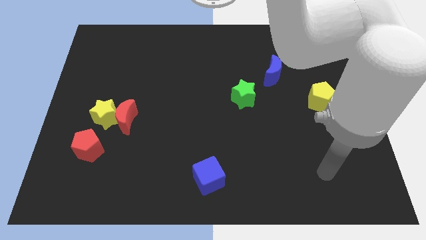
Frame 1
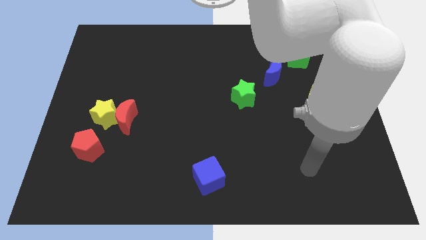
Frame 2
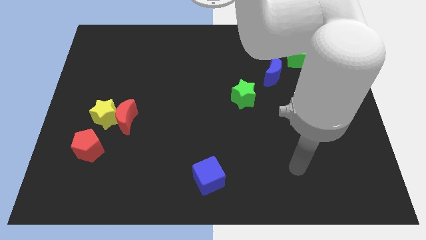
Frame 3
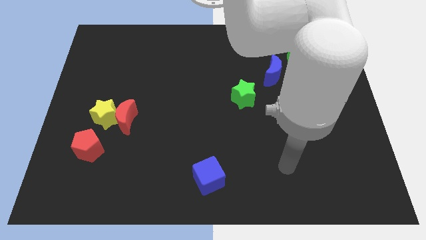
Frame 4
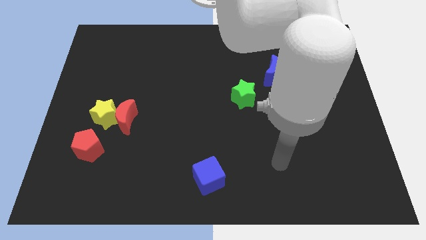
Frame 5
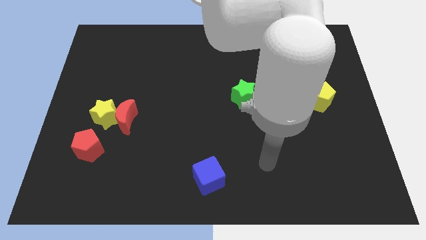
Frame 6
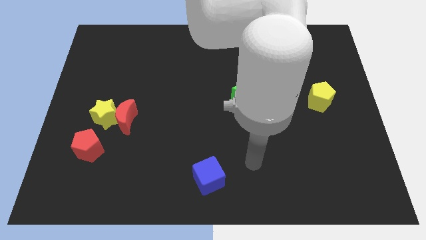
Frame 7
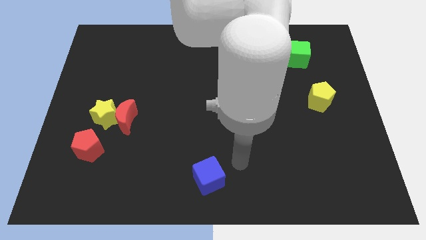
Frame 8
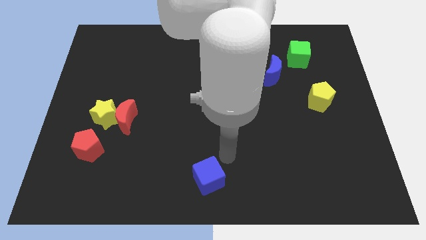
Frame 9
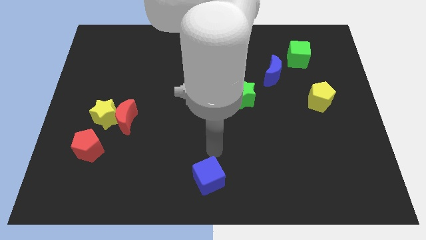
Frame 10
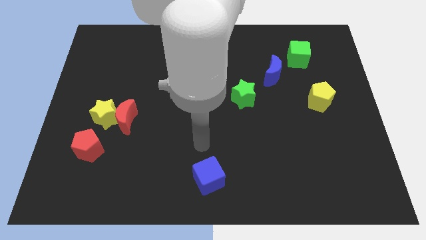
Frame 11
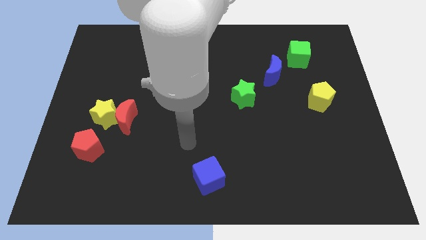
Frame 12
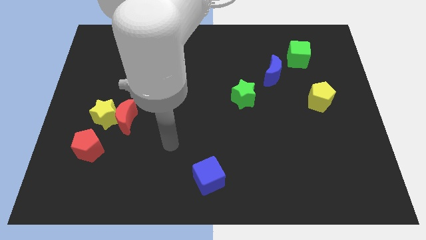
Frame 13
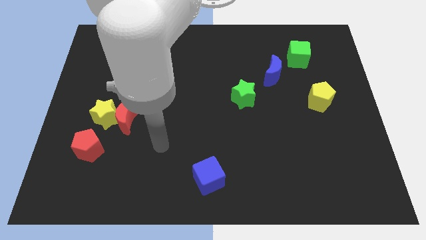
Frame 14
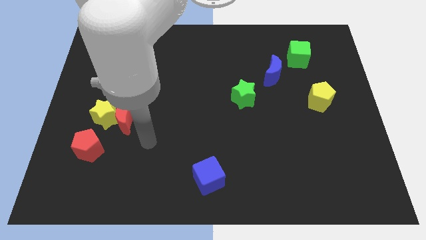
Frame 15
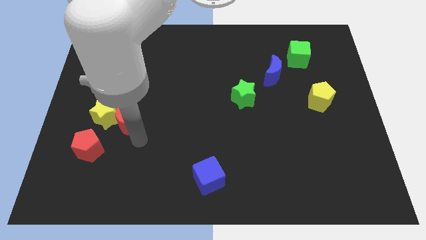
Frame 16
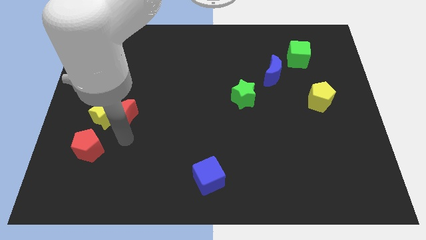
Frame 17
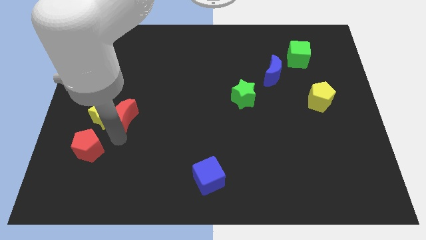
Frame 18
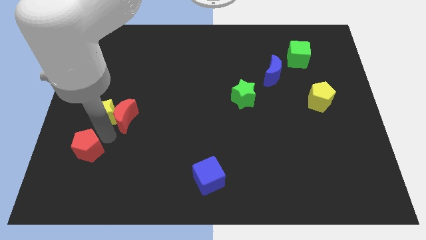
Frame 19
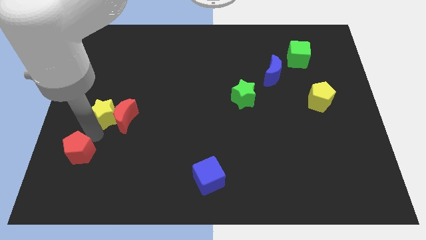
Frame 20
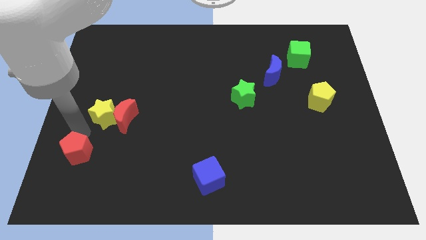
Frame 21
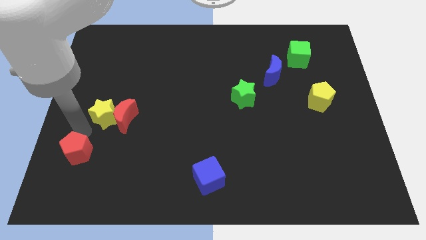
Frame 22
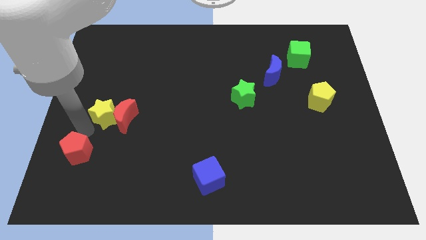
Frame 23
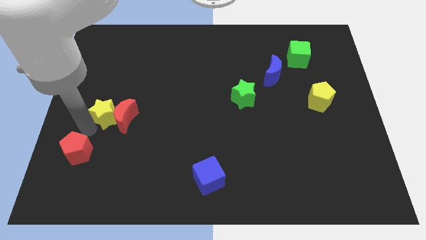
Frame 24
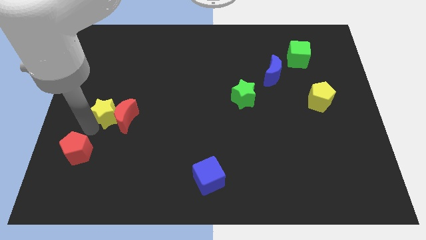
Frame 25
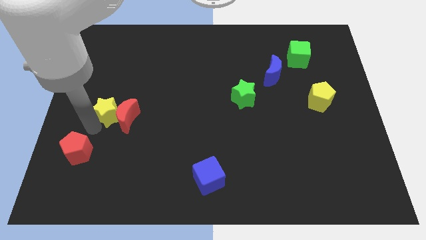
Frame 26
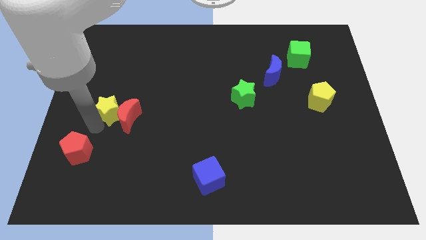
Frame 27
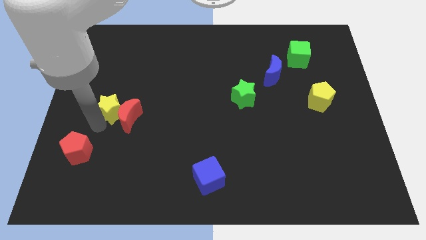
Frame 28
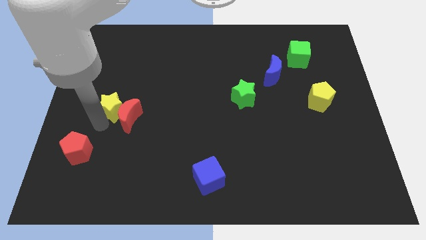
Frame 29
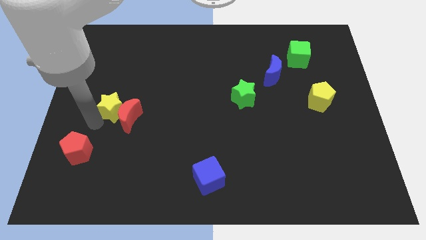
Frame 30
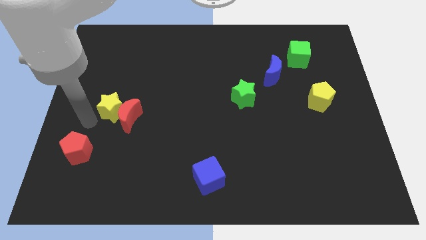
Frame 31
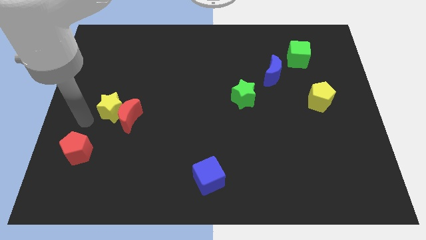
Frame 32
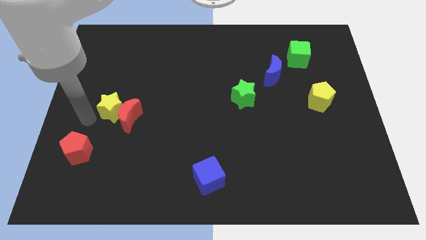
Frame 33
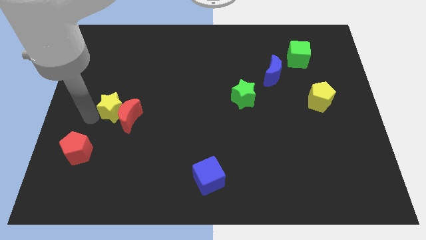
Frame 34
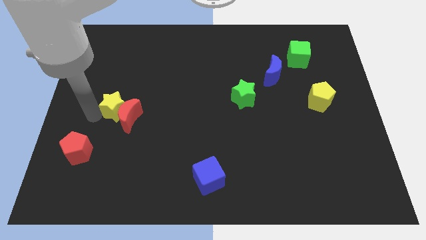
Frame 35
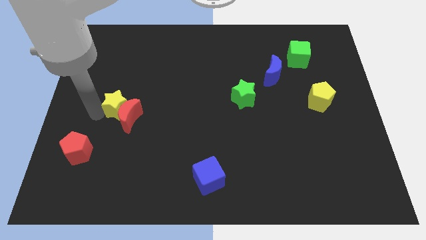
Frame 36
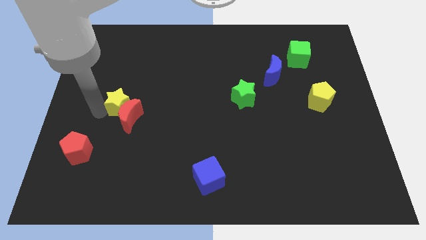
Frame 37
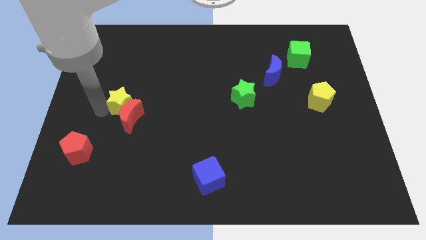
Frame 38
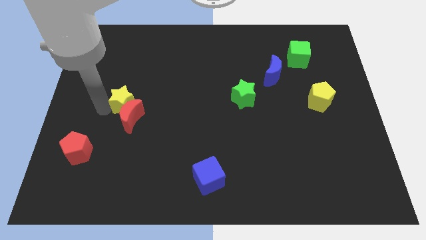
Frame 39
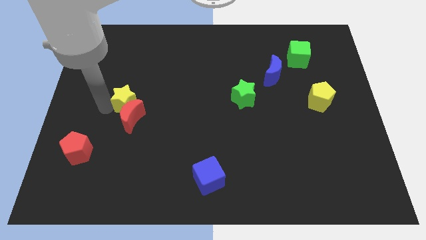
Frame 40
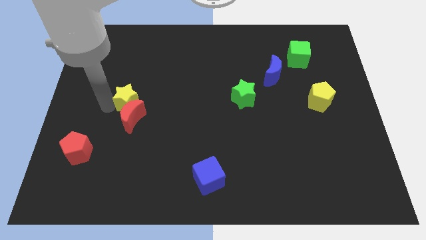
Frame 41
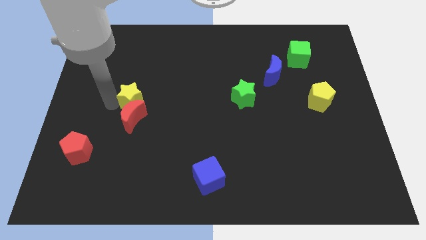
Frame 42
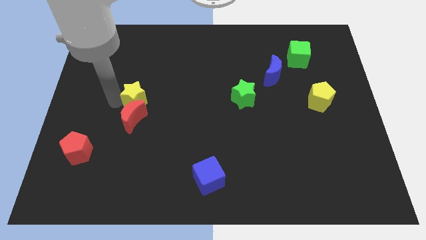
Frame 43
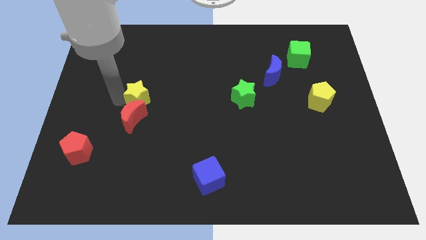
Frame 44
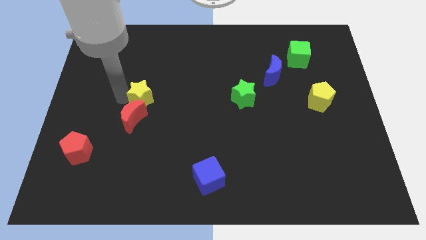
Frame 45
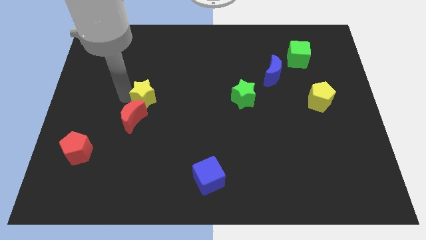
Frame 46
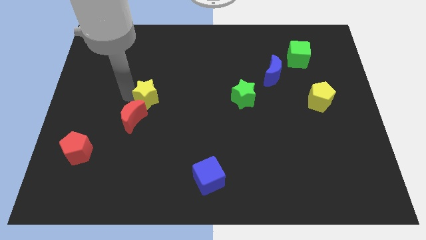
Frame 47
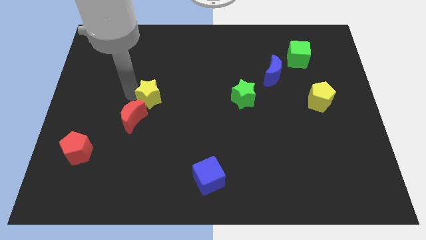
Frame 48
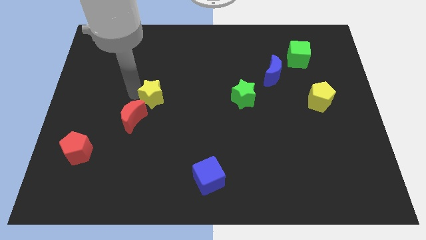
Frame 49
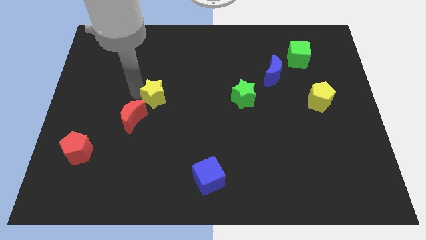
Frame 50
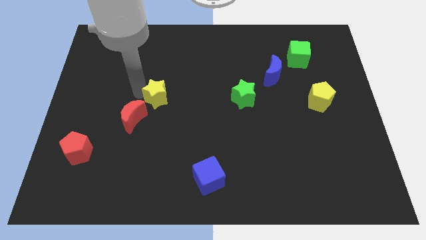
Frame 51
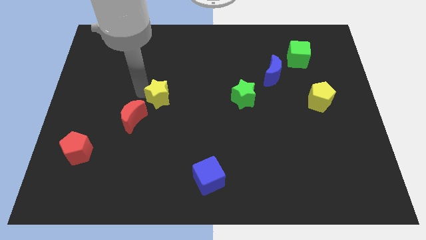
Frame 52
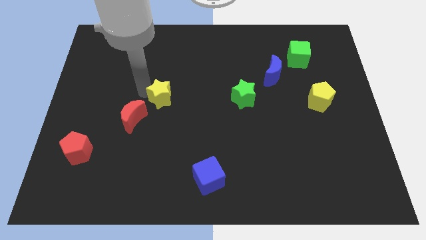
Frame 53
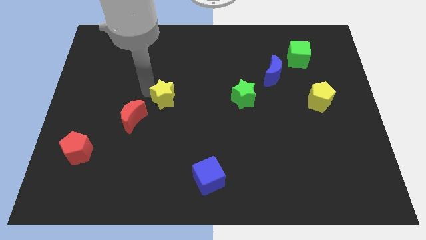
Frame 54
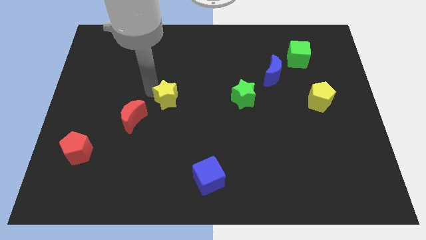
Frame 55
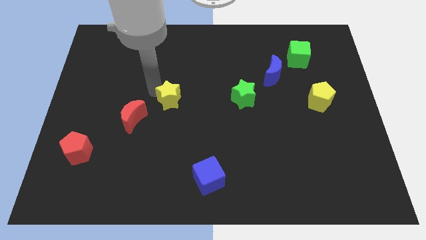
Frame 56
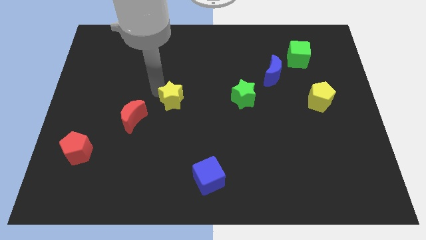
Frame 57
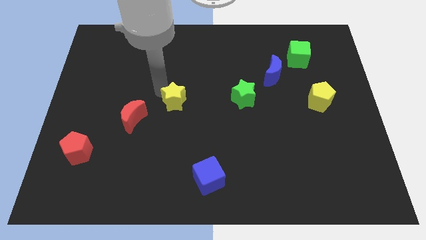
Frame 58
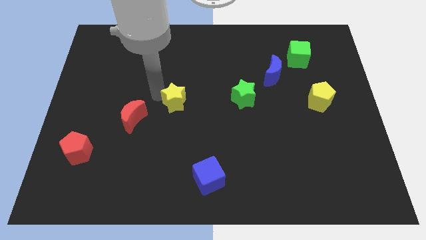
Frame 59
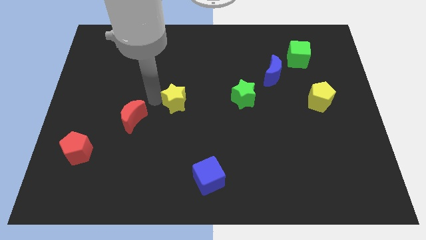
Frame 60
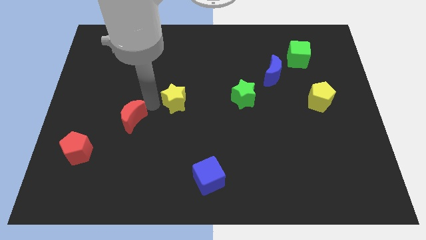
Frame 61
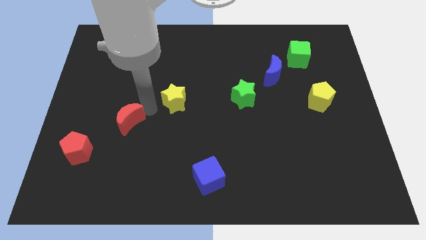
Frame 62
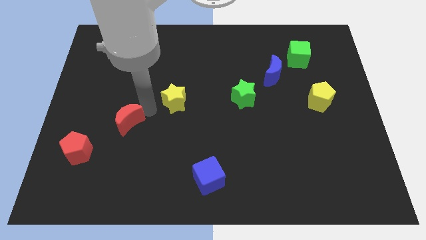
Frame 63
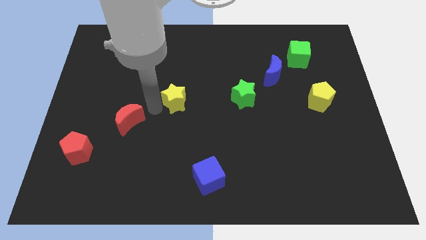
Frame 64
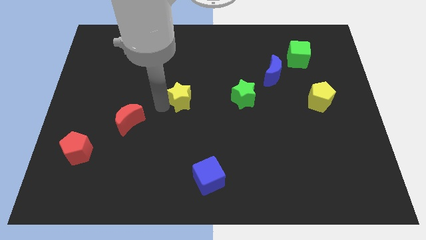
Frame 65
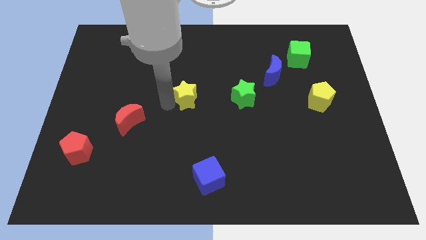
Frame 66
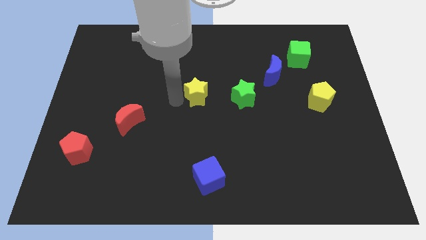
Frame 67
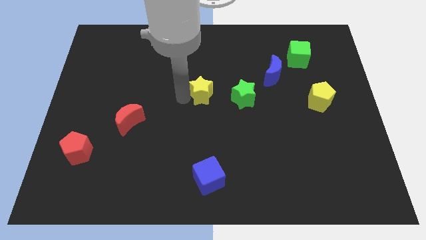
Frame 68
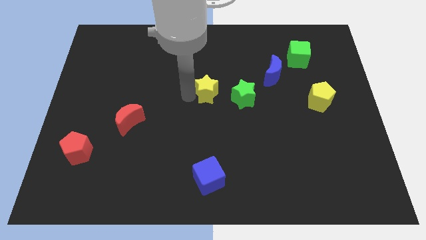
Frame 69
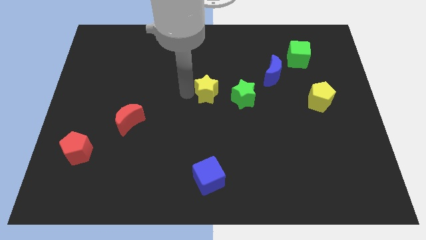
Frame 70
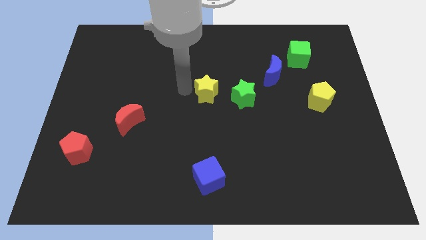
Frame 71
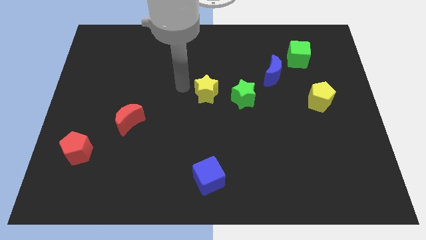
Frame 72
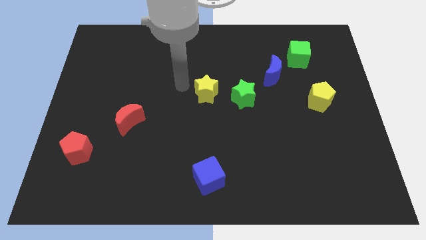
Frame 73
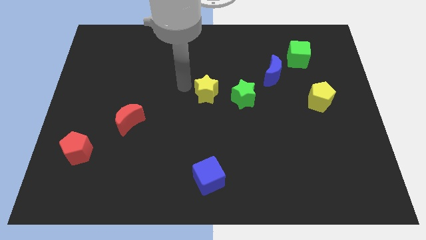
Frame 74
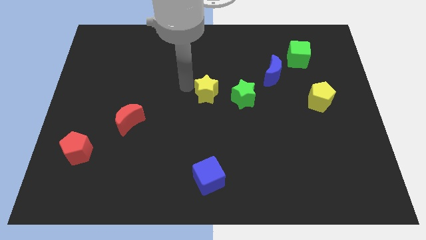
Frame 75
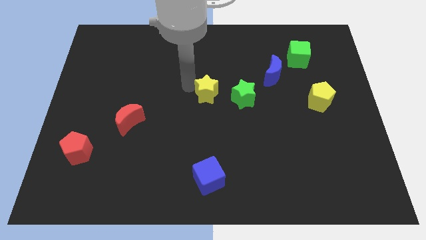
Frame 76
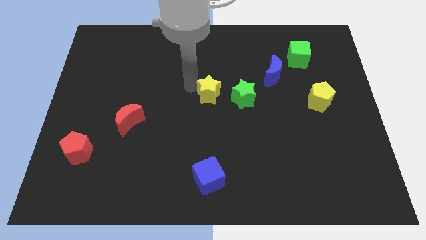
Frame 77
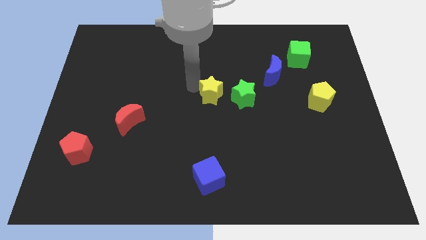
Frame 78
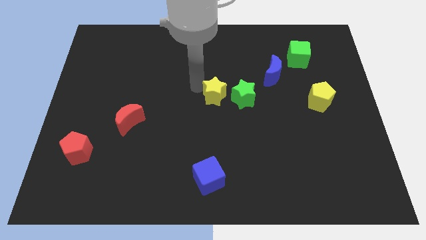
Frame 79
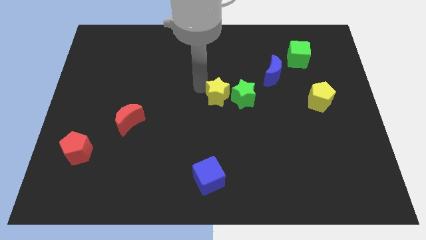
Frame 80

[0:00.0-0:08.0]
push the yellow star towards the green star
